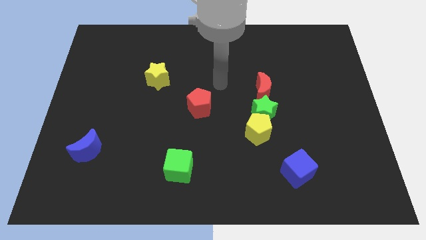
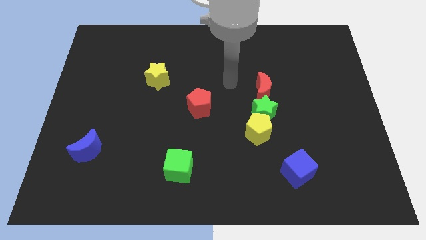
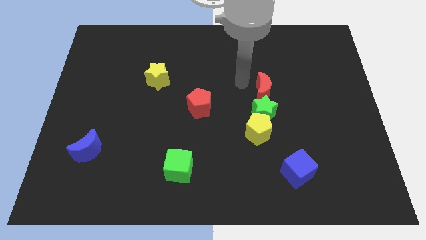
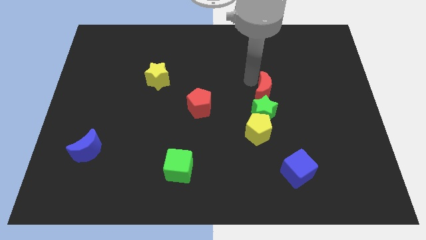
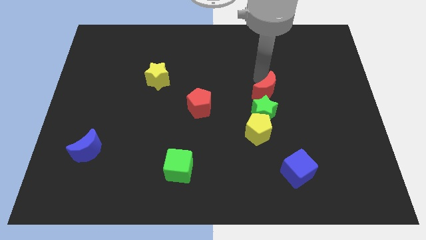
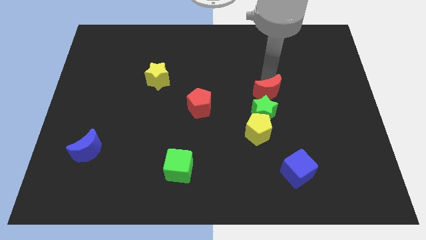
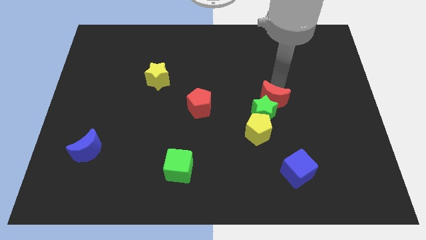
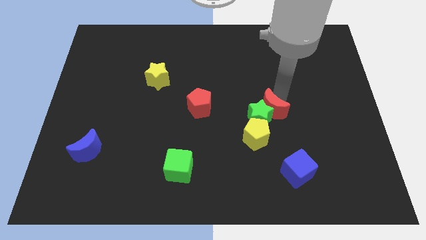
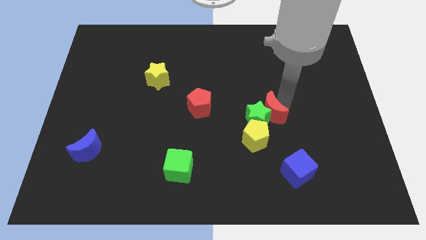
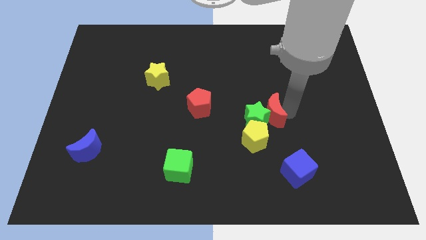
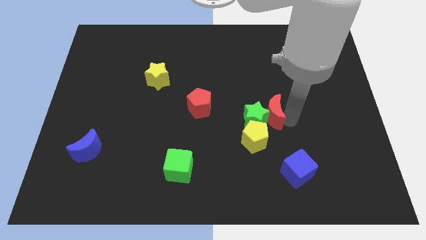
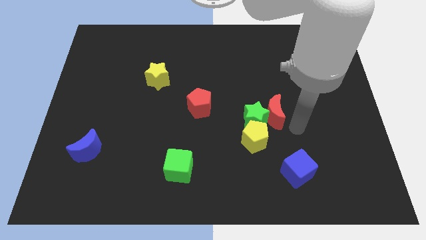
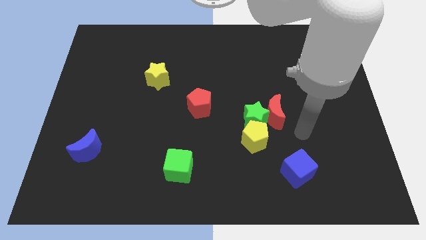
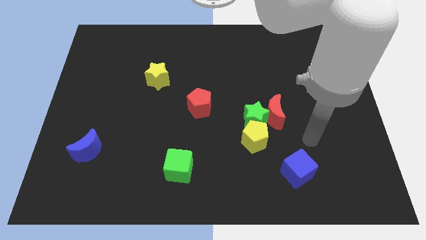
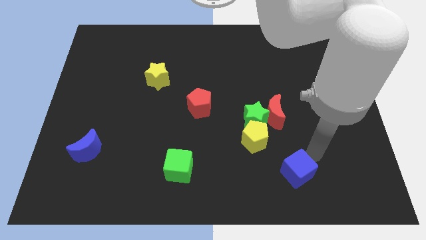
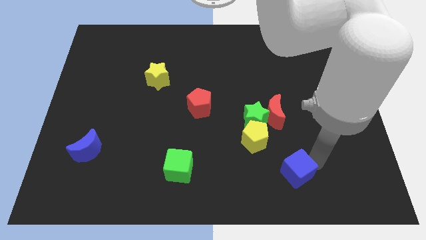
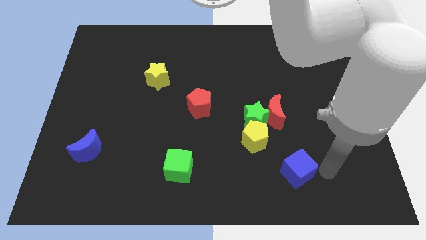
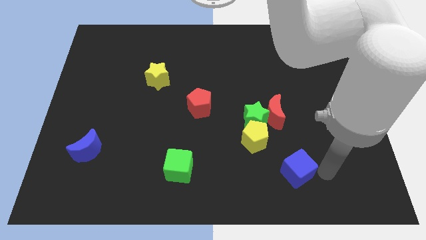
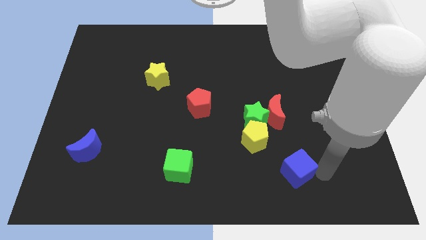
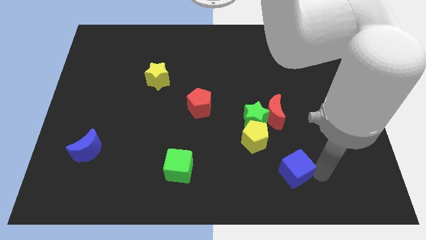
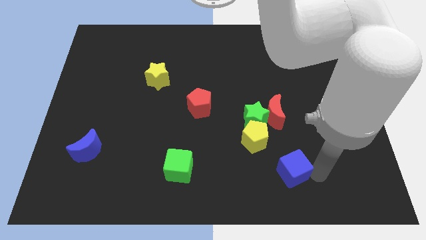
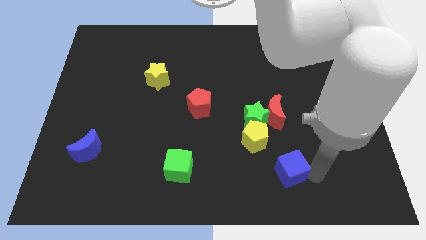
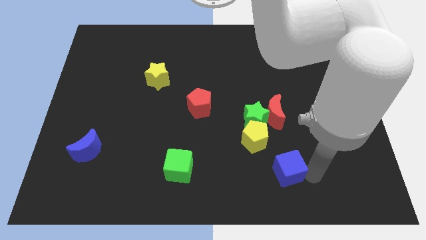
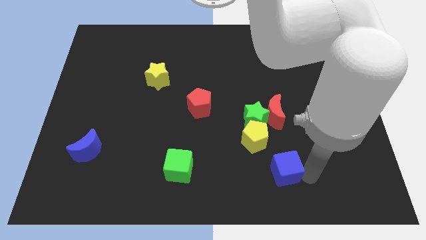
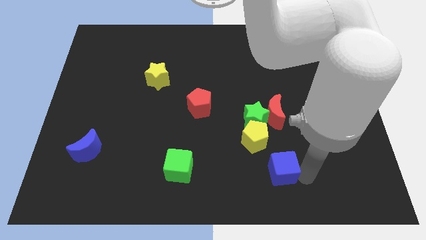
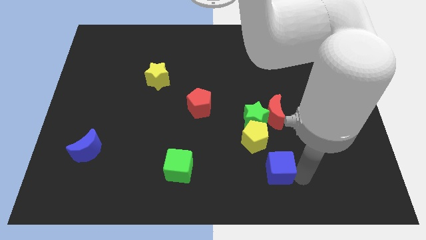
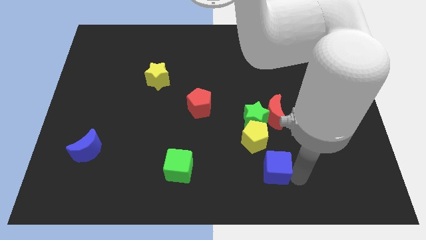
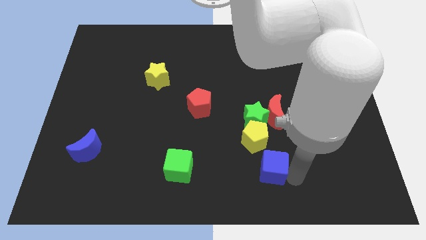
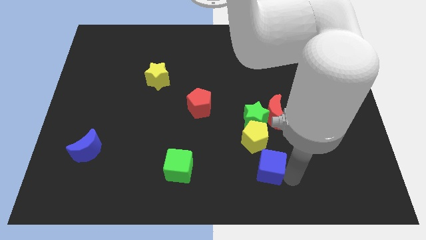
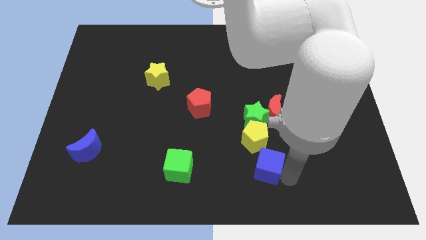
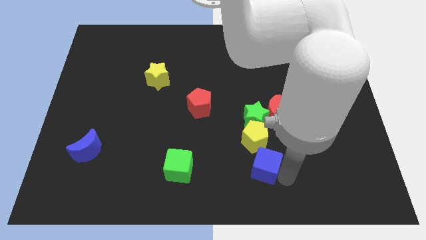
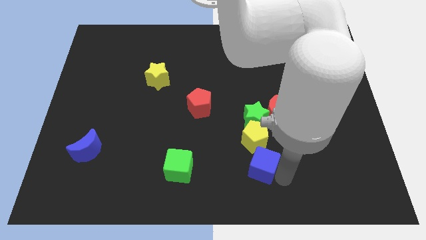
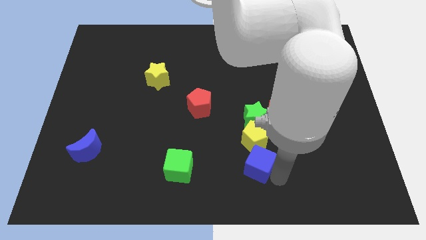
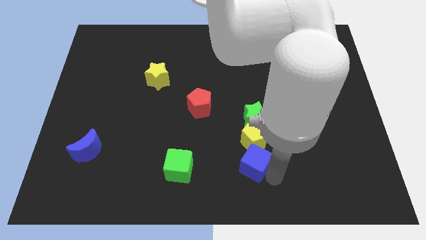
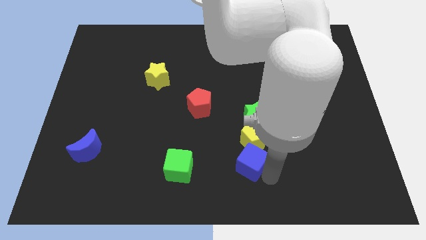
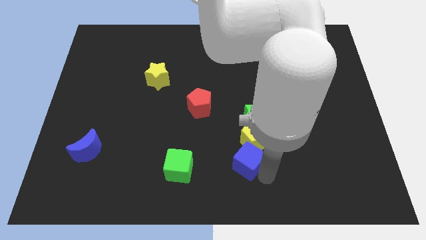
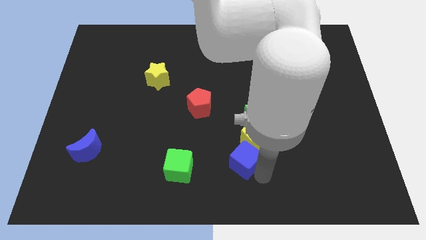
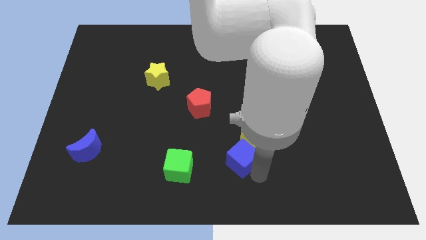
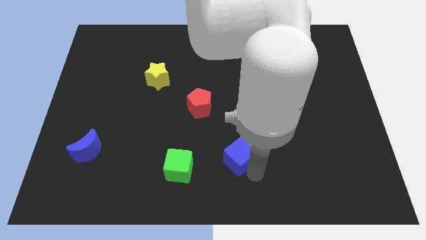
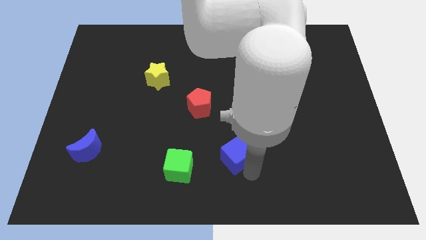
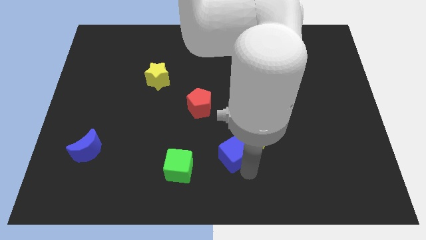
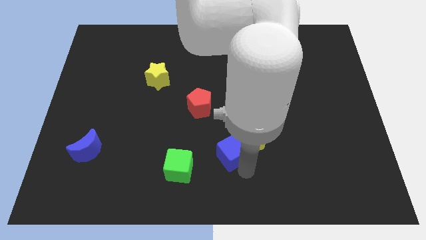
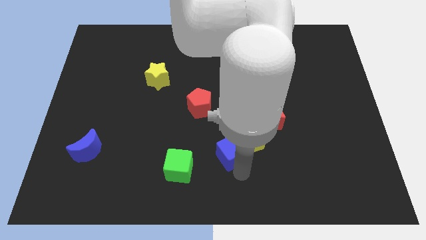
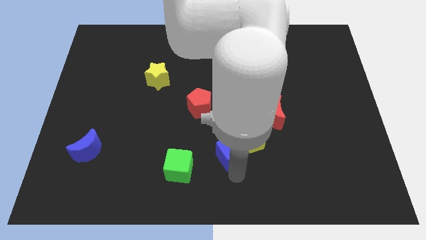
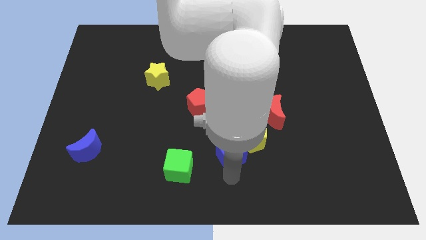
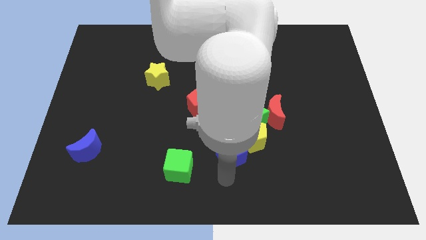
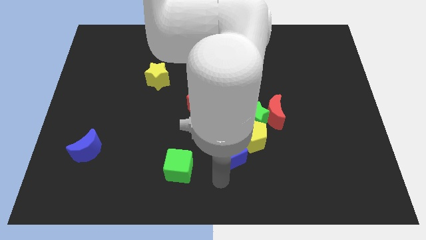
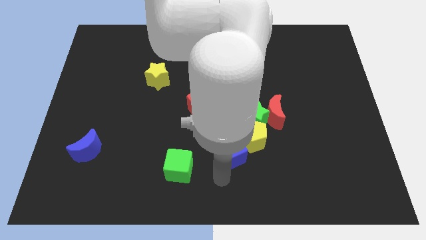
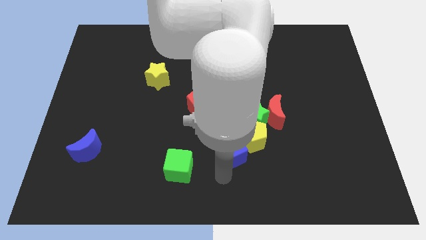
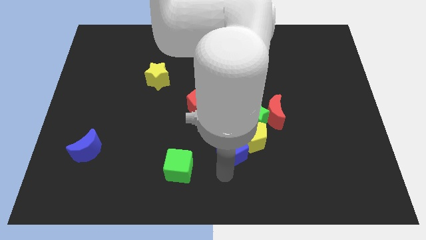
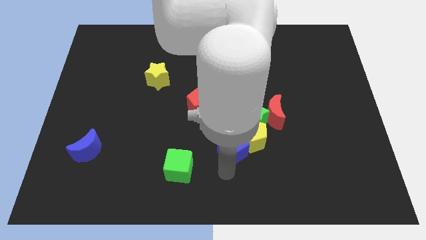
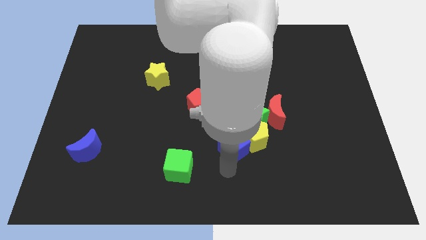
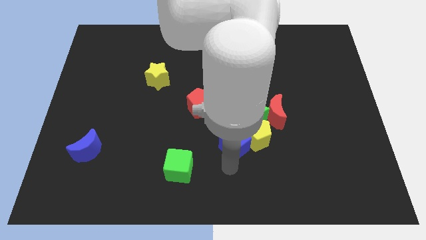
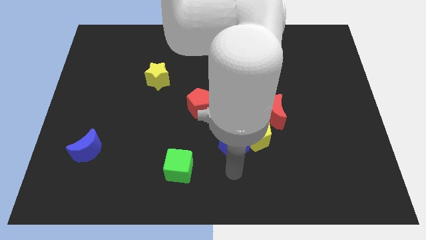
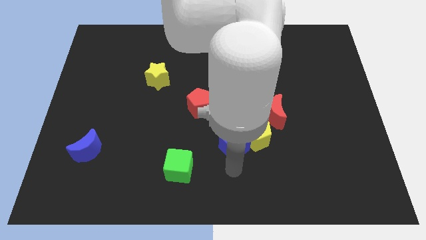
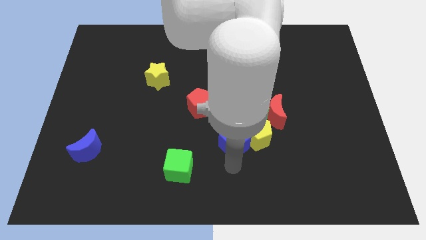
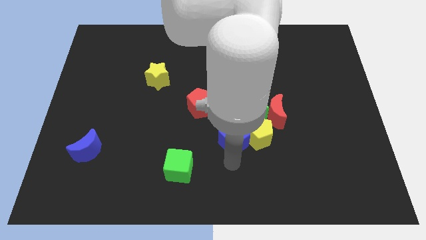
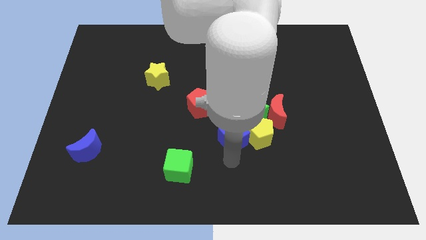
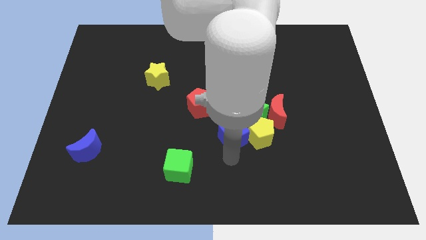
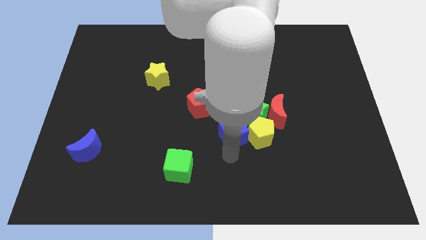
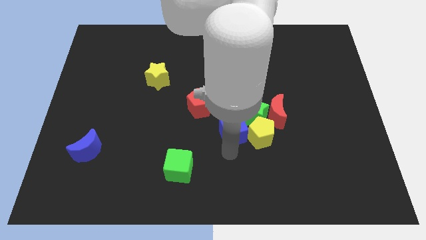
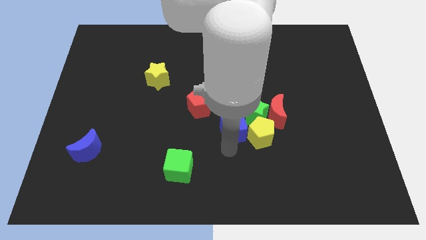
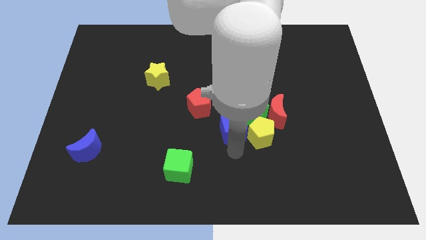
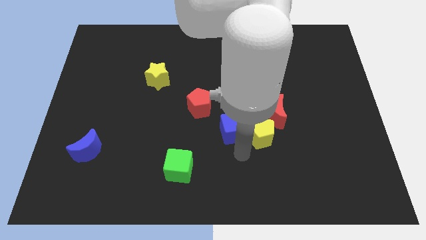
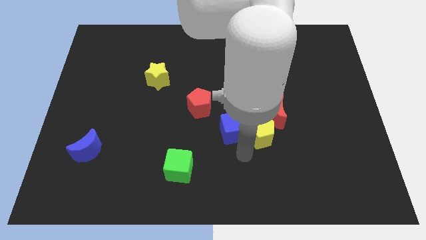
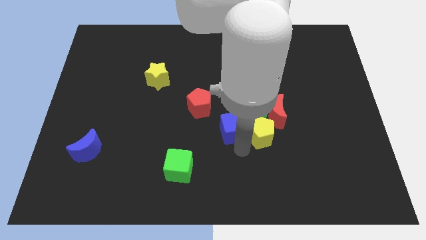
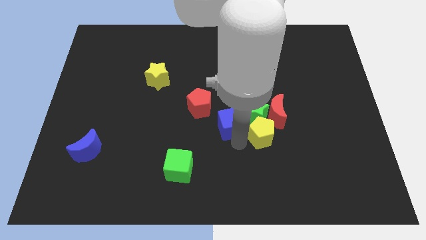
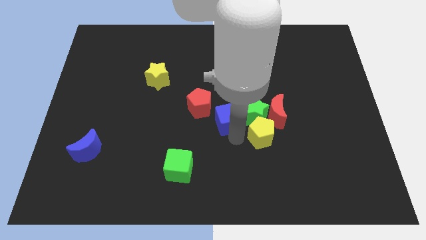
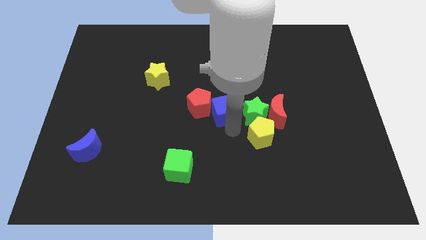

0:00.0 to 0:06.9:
move the blue cube upwards and to the left

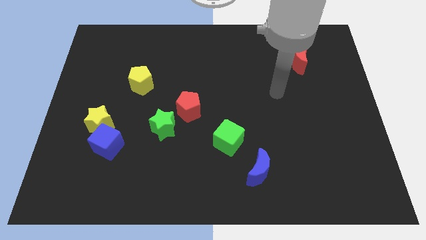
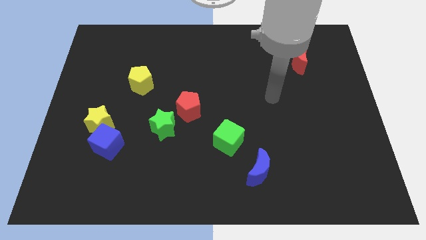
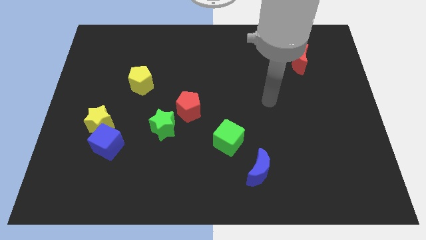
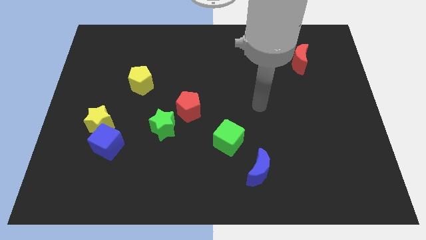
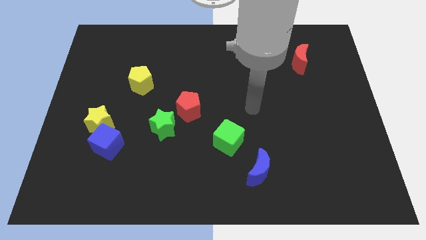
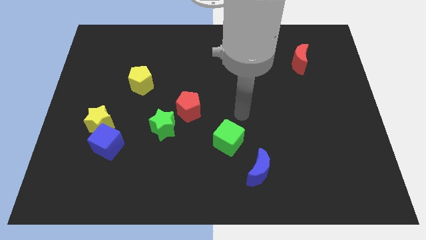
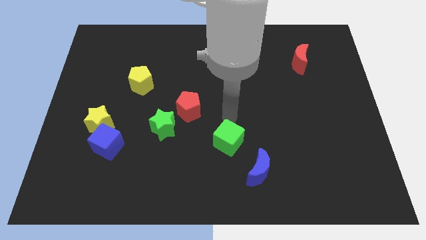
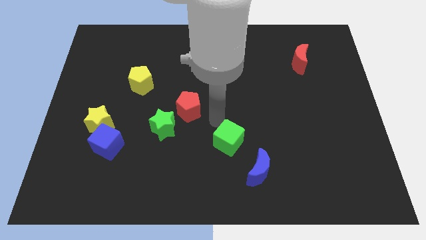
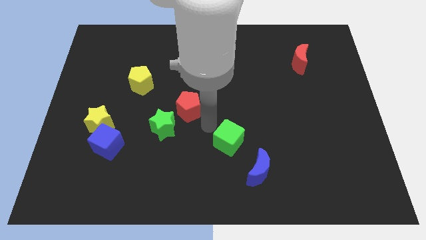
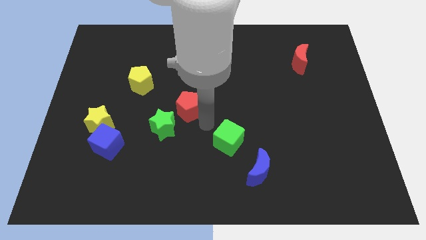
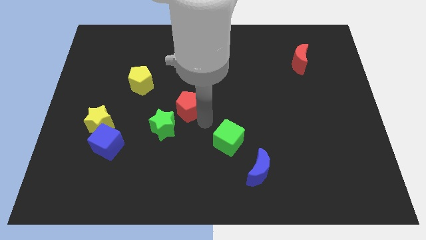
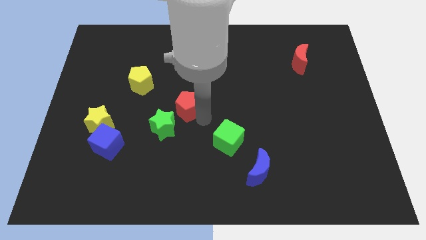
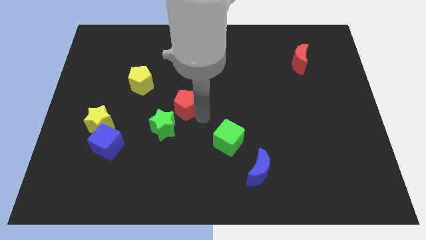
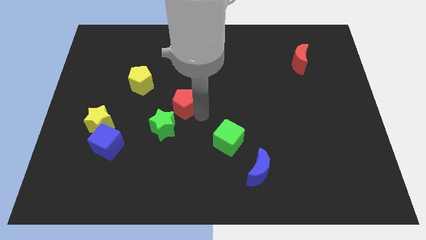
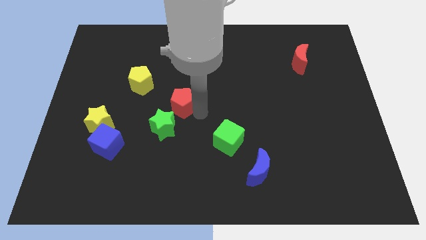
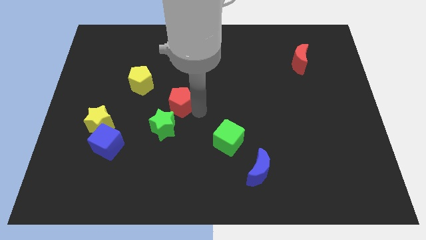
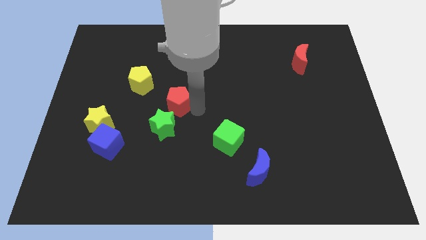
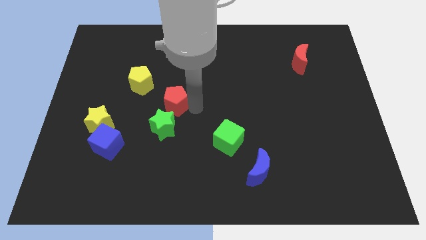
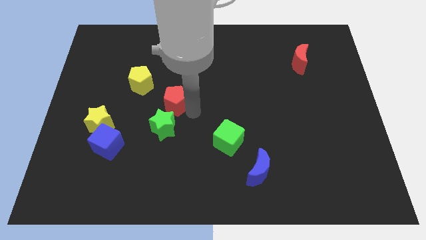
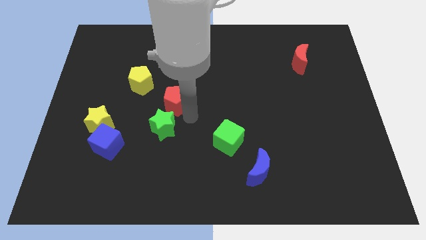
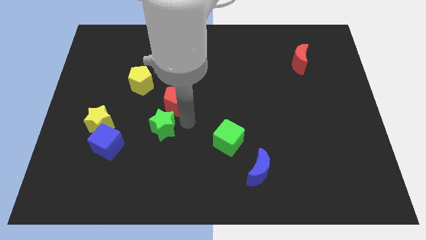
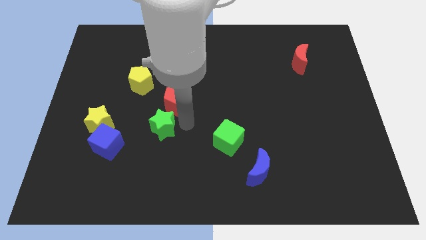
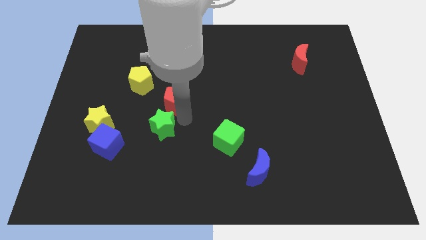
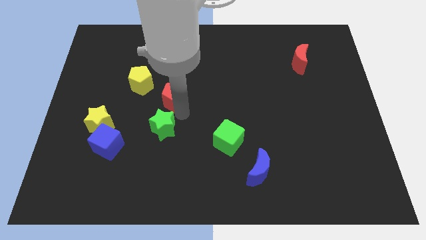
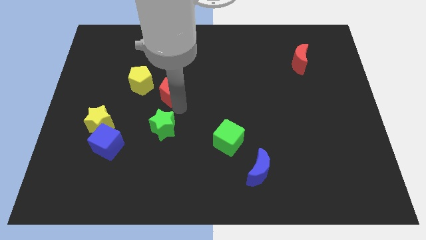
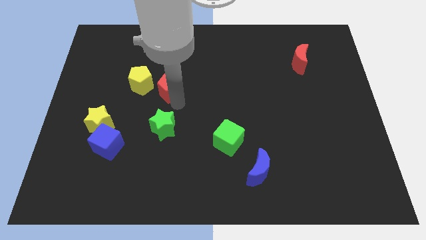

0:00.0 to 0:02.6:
move the red pentagon up and left diagonally a little
